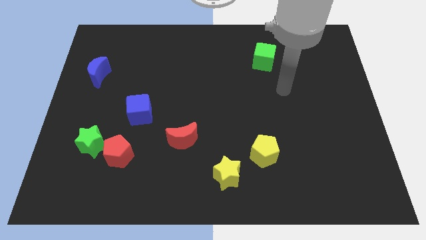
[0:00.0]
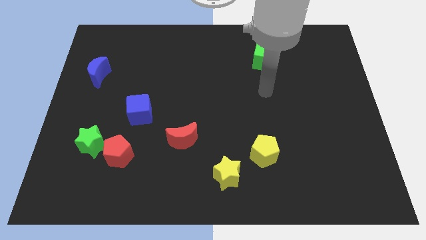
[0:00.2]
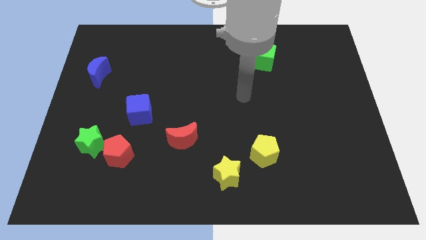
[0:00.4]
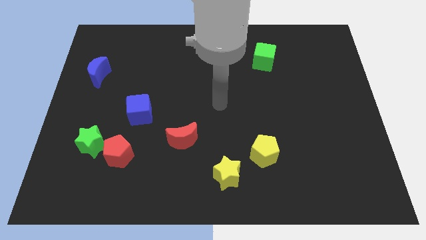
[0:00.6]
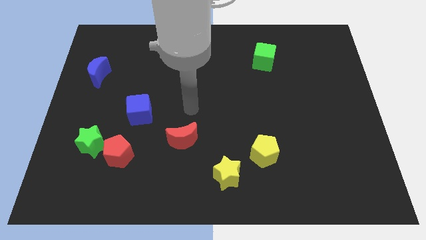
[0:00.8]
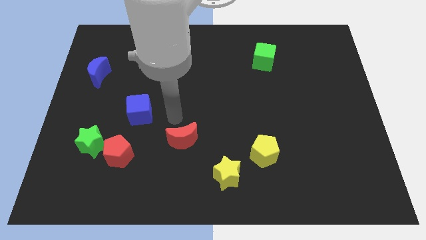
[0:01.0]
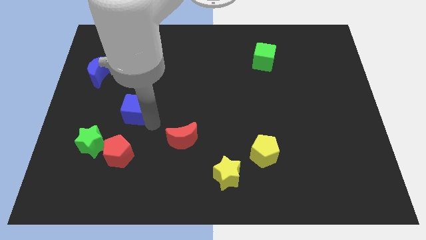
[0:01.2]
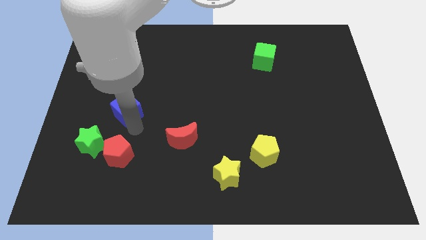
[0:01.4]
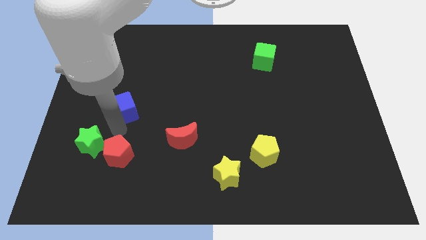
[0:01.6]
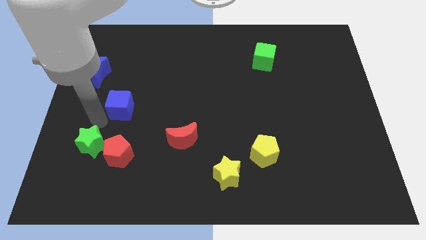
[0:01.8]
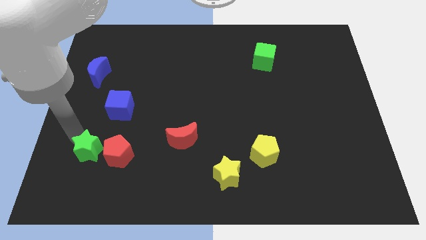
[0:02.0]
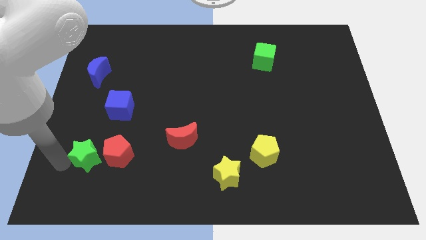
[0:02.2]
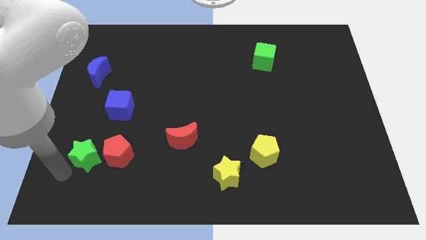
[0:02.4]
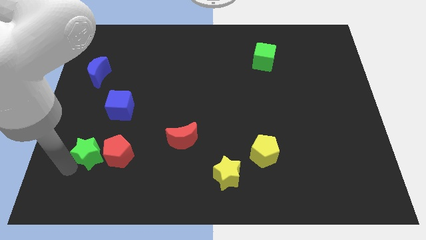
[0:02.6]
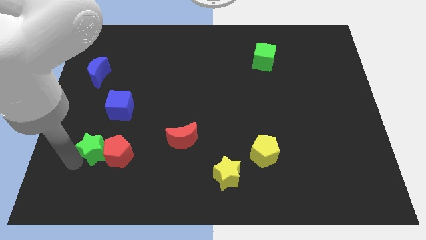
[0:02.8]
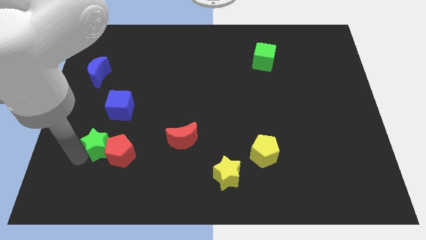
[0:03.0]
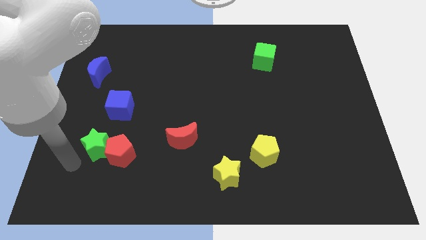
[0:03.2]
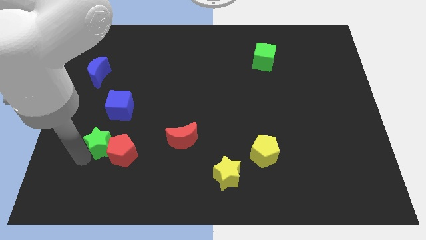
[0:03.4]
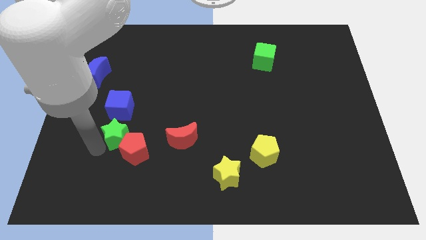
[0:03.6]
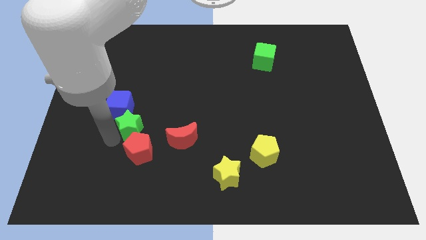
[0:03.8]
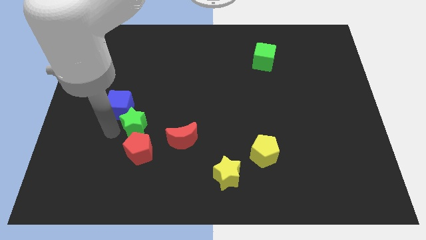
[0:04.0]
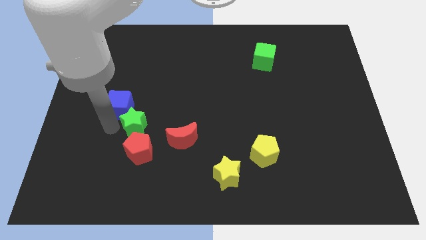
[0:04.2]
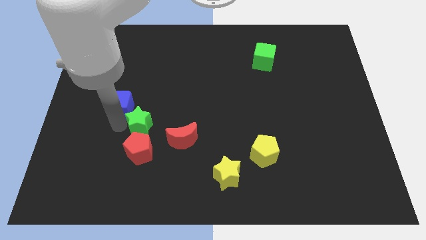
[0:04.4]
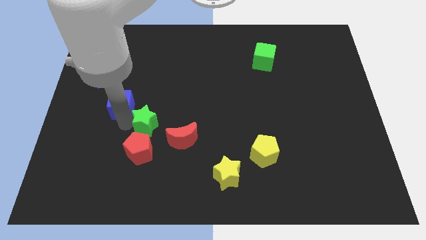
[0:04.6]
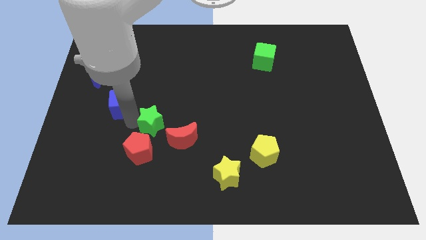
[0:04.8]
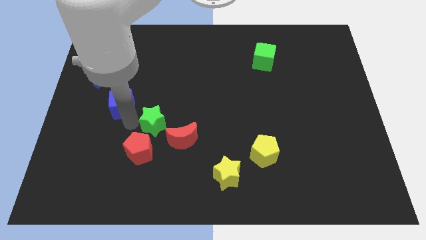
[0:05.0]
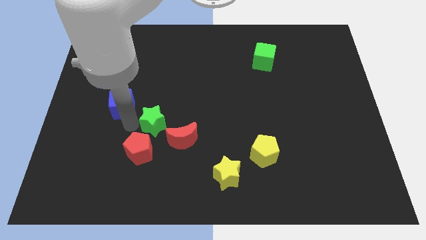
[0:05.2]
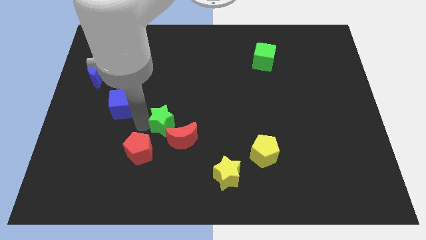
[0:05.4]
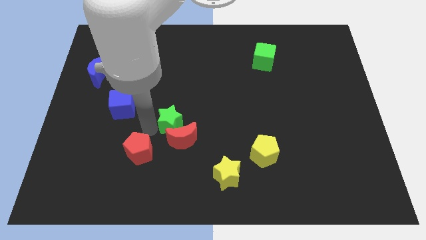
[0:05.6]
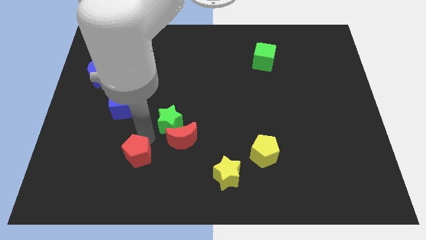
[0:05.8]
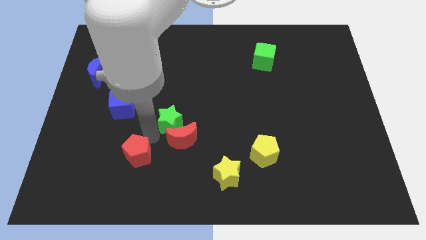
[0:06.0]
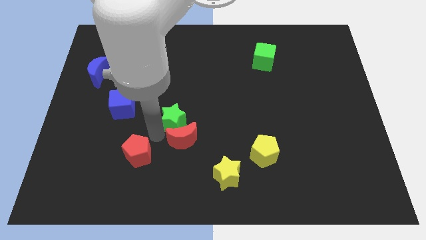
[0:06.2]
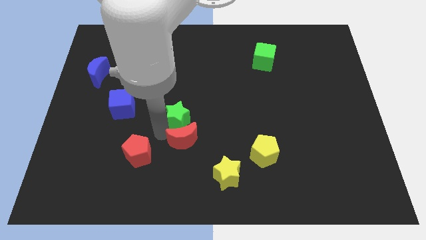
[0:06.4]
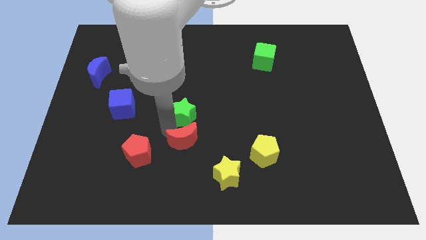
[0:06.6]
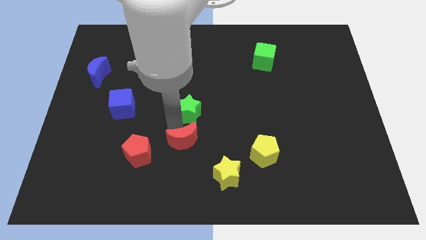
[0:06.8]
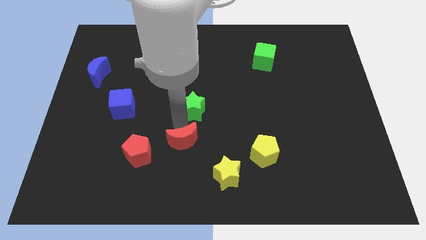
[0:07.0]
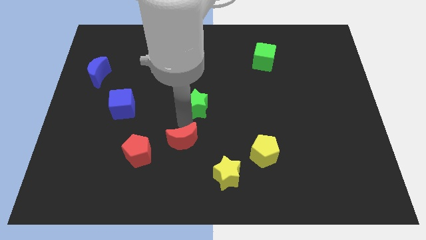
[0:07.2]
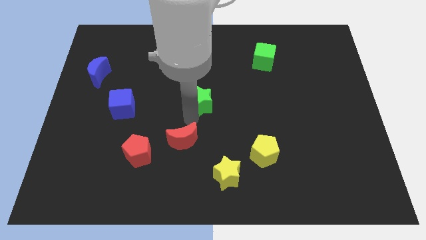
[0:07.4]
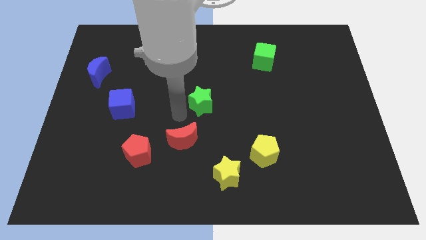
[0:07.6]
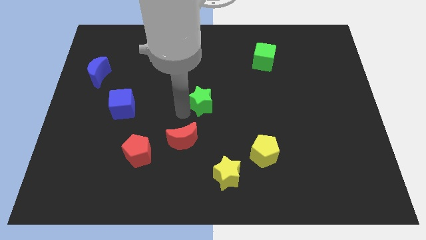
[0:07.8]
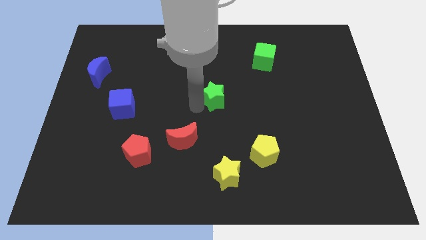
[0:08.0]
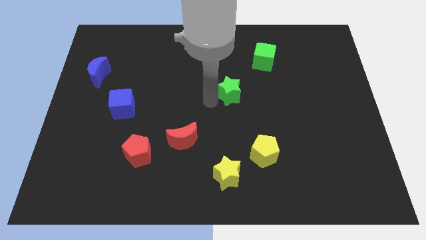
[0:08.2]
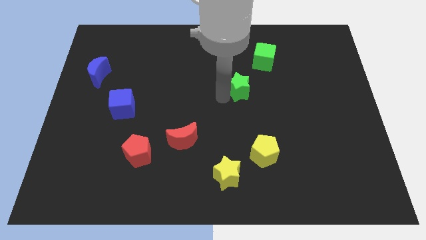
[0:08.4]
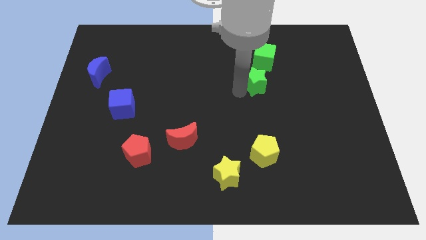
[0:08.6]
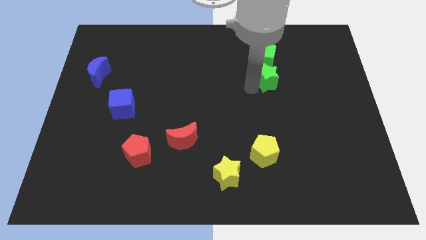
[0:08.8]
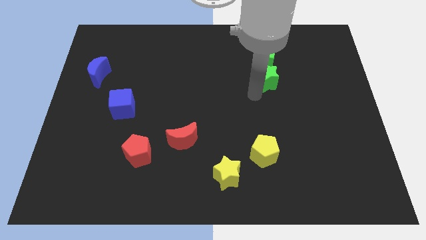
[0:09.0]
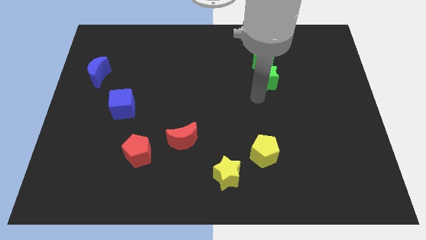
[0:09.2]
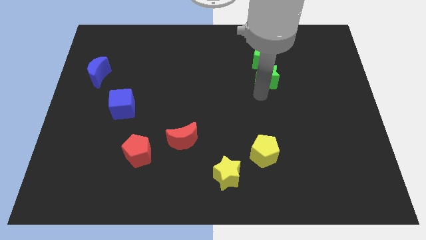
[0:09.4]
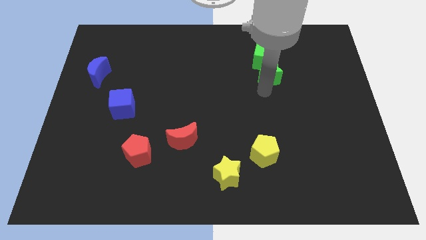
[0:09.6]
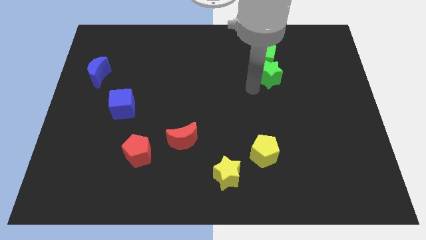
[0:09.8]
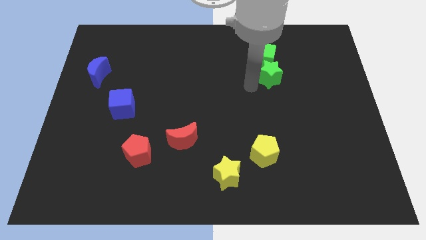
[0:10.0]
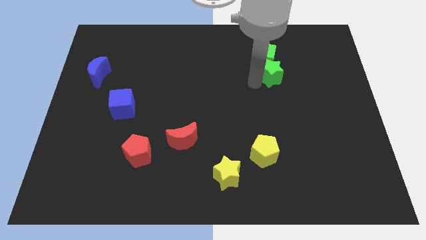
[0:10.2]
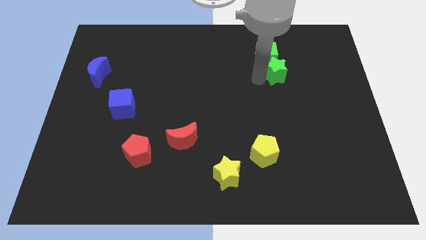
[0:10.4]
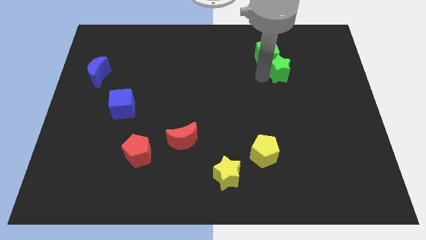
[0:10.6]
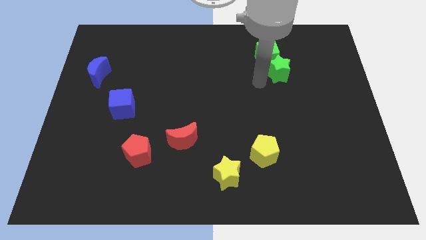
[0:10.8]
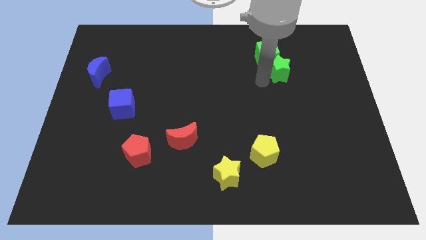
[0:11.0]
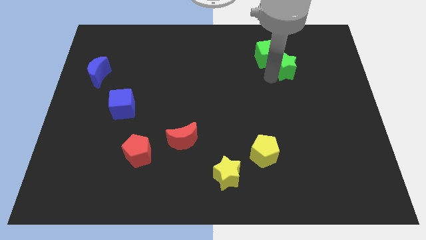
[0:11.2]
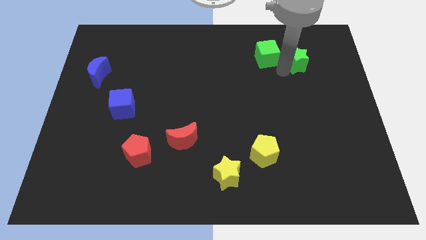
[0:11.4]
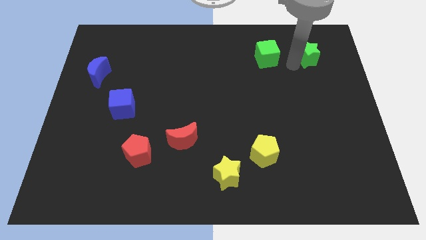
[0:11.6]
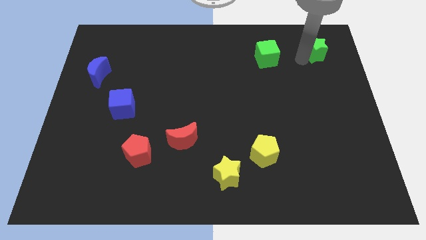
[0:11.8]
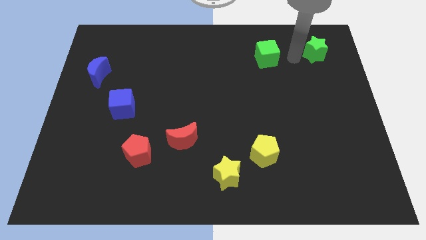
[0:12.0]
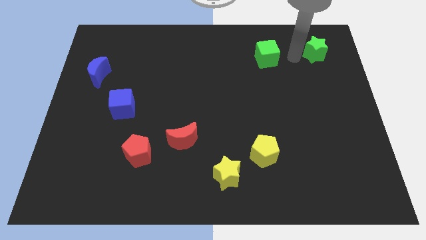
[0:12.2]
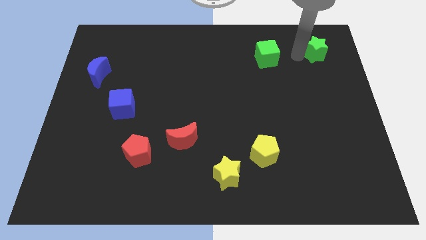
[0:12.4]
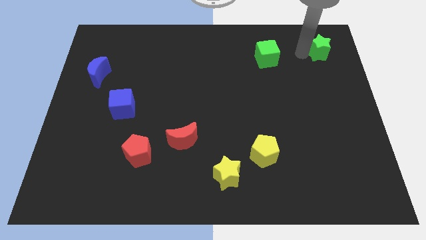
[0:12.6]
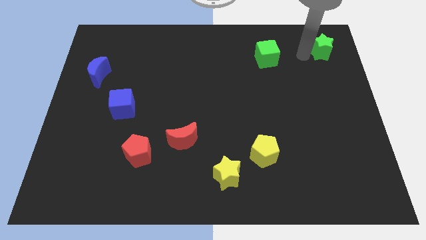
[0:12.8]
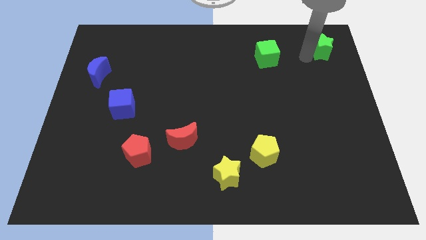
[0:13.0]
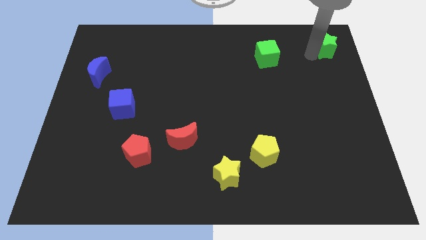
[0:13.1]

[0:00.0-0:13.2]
slide the green star to the top right of the board
